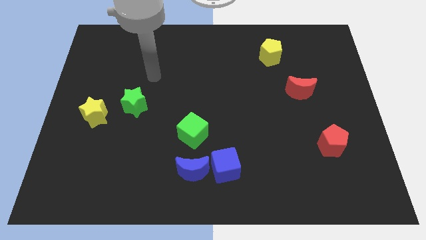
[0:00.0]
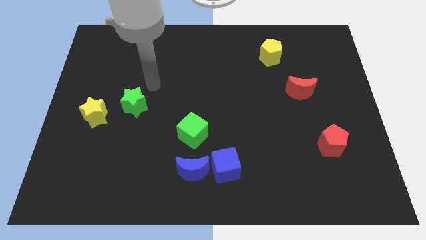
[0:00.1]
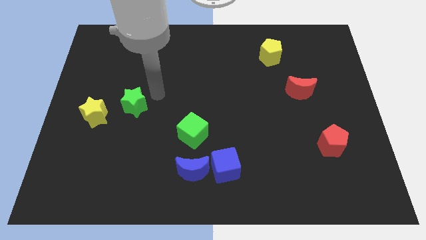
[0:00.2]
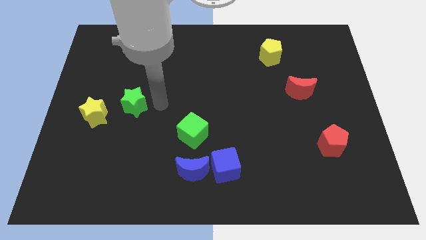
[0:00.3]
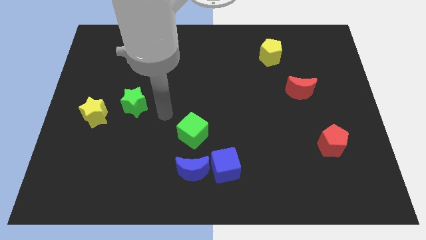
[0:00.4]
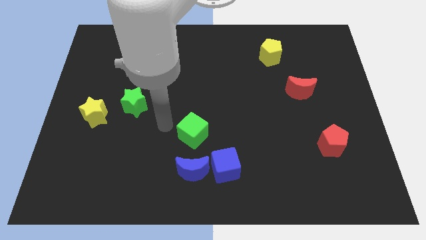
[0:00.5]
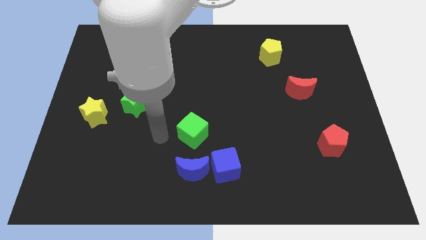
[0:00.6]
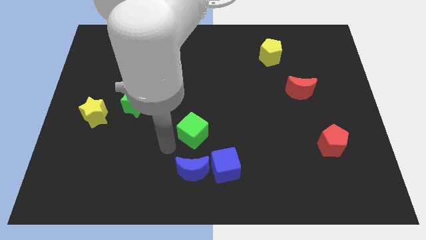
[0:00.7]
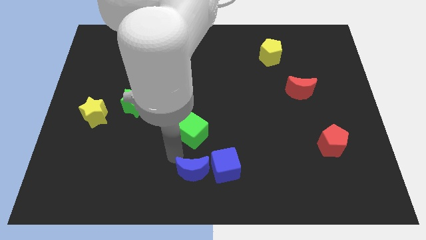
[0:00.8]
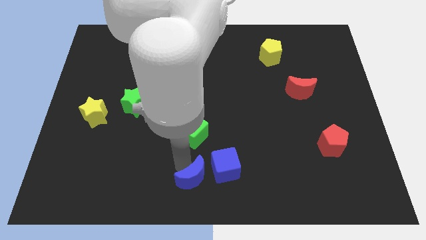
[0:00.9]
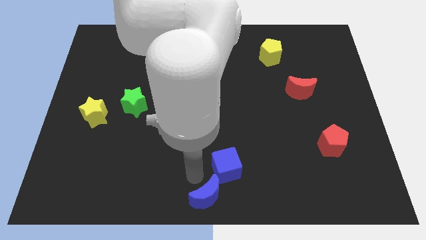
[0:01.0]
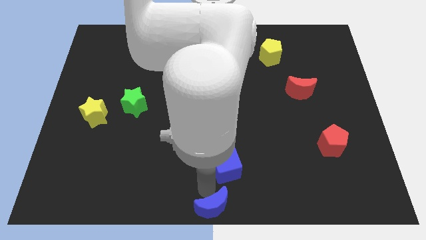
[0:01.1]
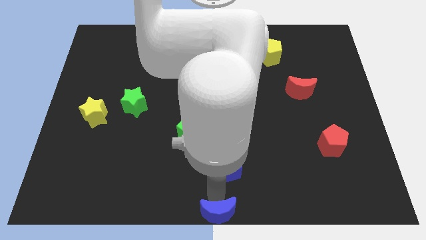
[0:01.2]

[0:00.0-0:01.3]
move the blue cube away from the blue moon

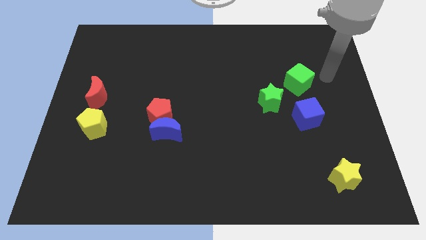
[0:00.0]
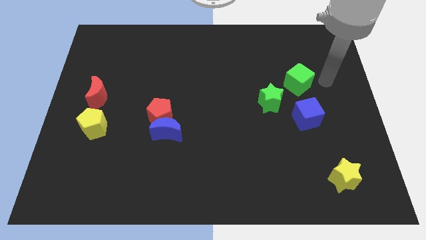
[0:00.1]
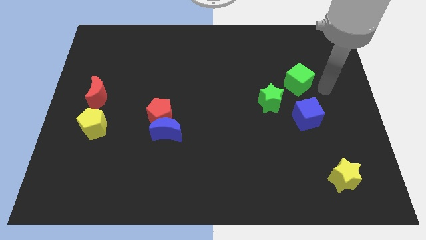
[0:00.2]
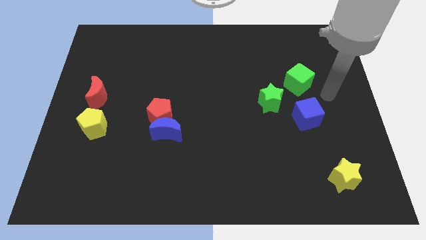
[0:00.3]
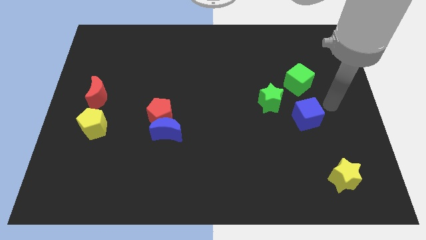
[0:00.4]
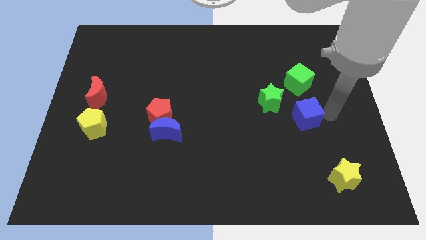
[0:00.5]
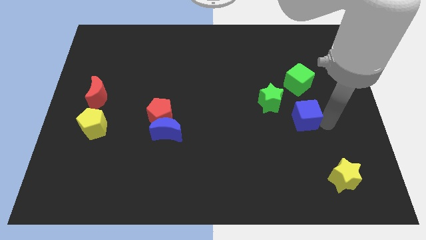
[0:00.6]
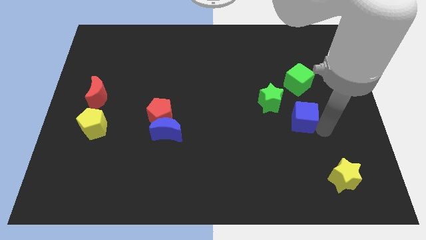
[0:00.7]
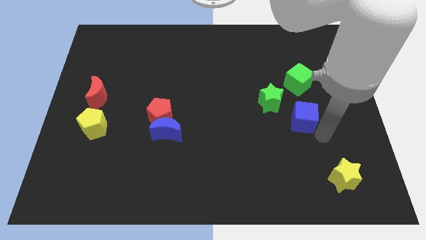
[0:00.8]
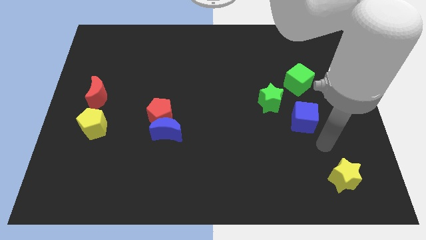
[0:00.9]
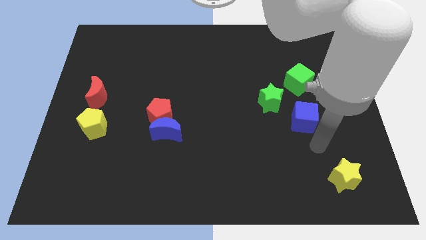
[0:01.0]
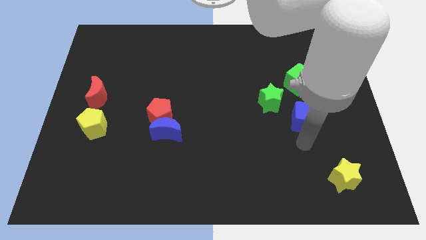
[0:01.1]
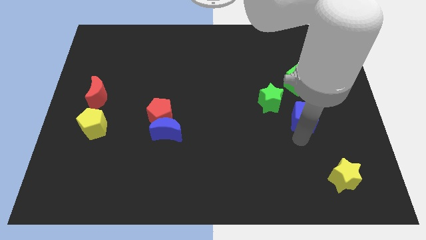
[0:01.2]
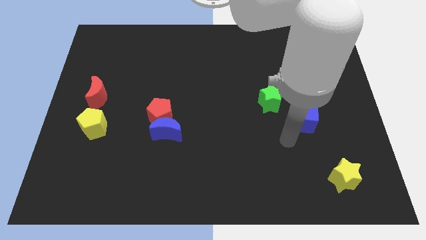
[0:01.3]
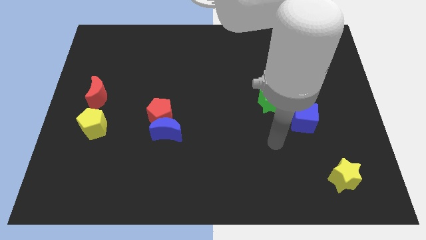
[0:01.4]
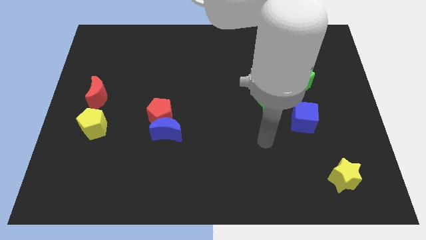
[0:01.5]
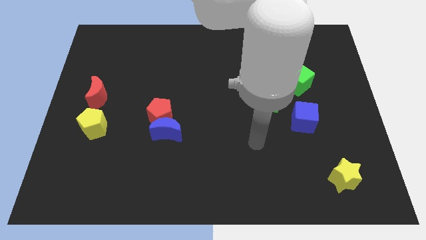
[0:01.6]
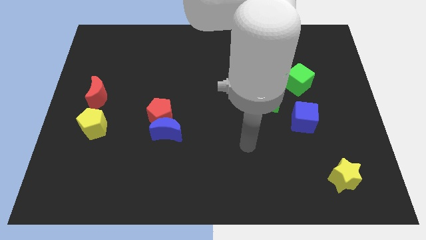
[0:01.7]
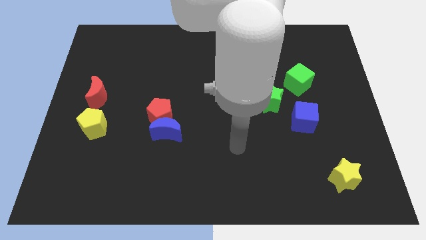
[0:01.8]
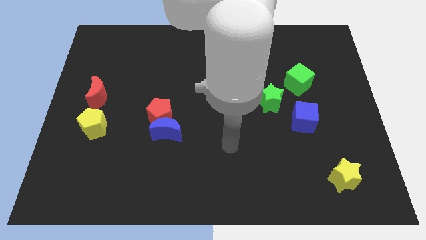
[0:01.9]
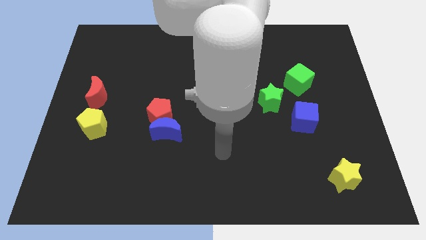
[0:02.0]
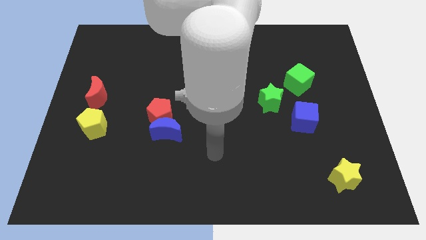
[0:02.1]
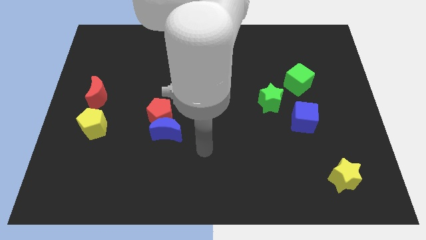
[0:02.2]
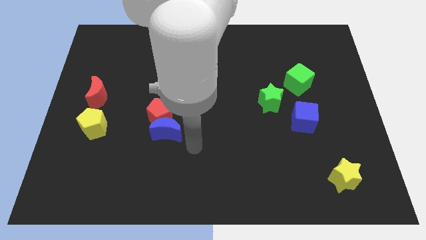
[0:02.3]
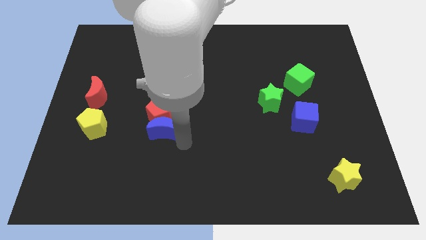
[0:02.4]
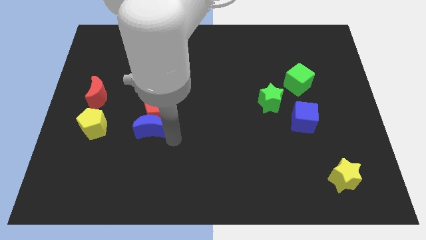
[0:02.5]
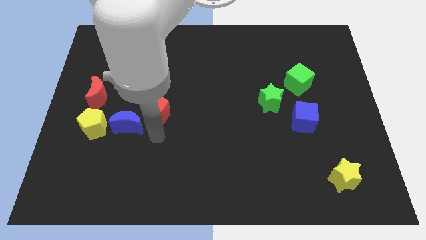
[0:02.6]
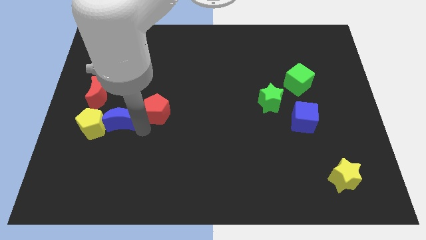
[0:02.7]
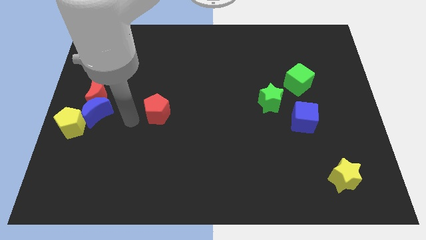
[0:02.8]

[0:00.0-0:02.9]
separate the red pentagon from the blue moon

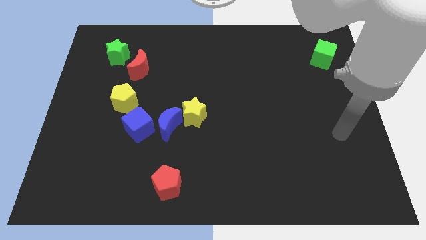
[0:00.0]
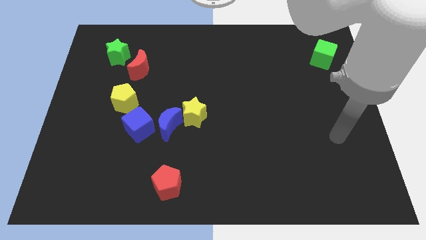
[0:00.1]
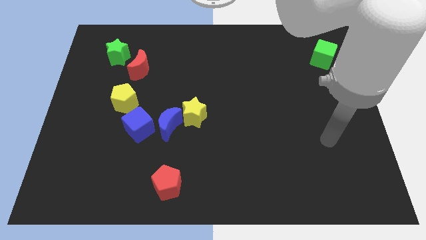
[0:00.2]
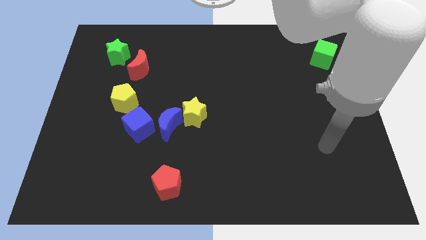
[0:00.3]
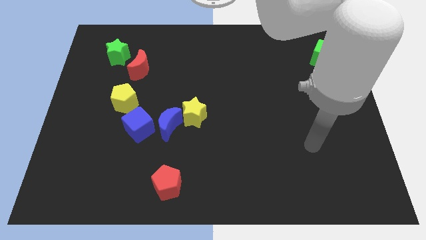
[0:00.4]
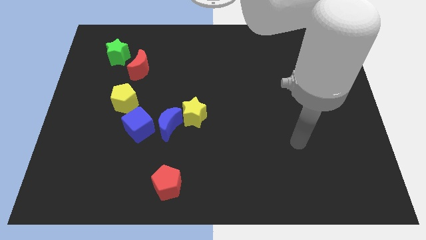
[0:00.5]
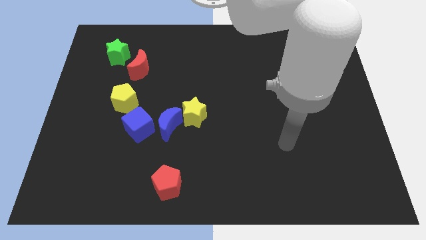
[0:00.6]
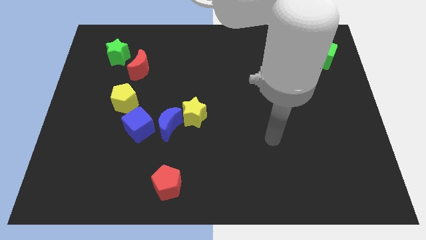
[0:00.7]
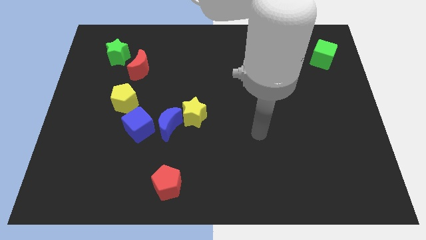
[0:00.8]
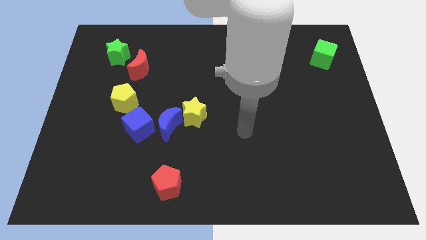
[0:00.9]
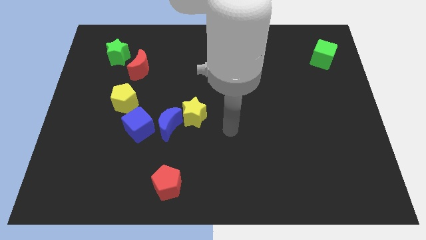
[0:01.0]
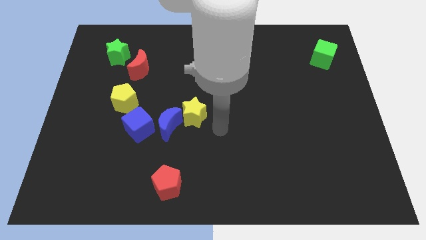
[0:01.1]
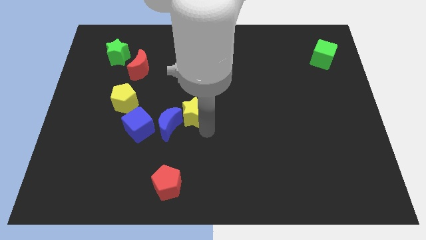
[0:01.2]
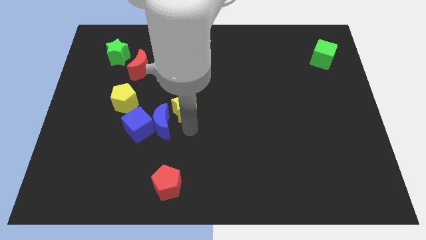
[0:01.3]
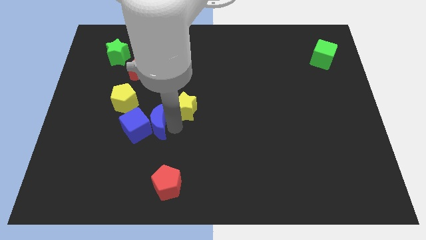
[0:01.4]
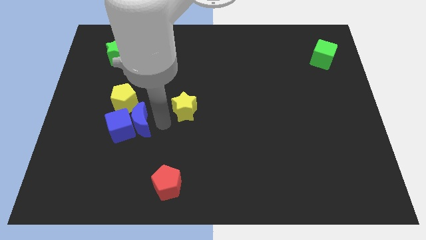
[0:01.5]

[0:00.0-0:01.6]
separate the yellow star from the blue moon

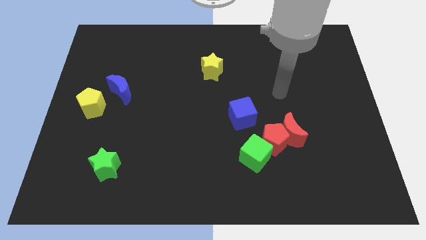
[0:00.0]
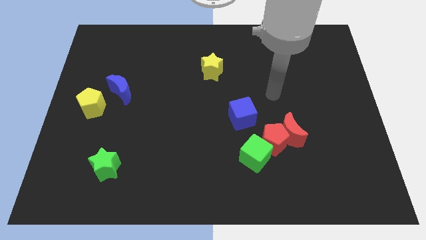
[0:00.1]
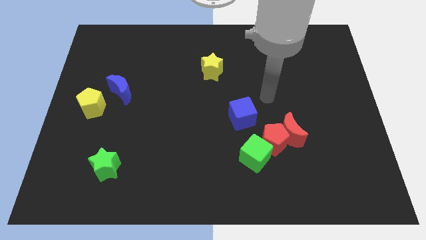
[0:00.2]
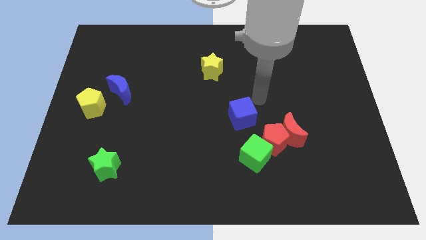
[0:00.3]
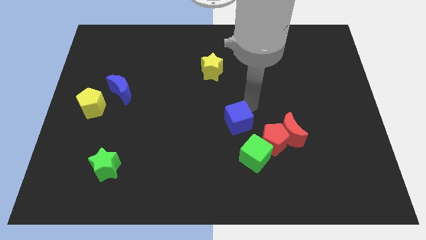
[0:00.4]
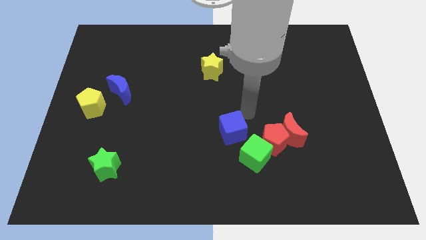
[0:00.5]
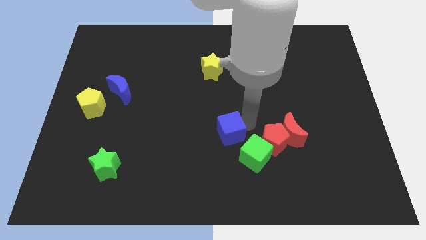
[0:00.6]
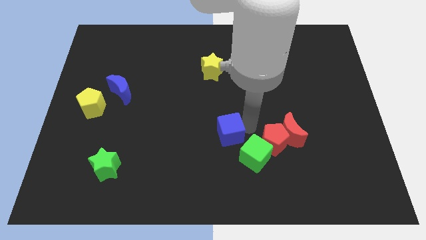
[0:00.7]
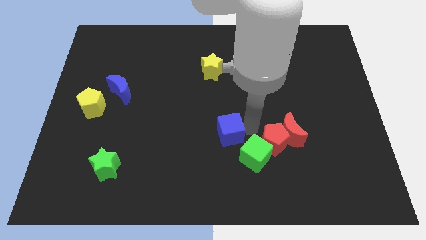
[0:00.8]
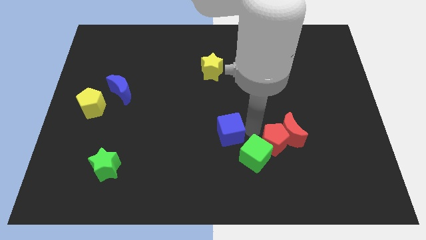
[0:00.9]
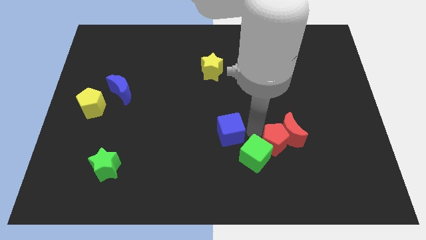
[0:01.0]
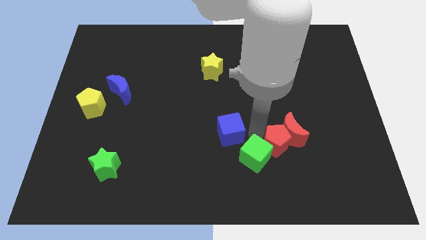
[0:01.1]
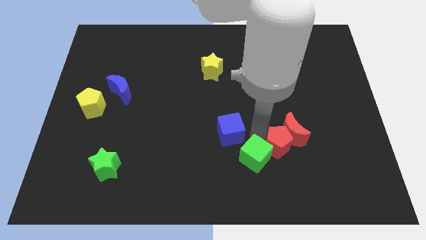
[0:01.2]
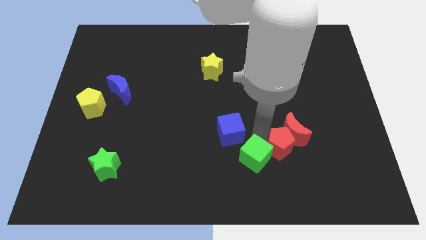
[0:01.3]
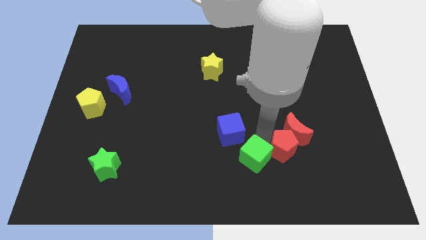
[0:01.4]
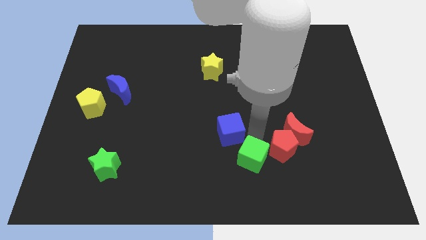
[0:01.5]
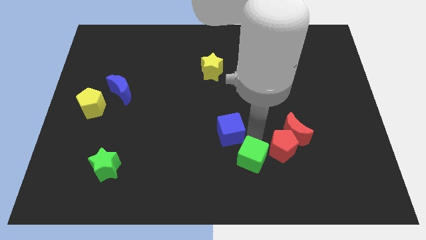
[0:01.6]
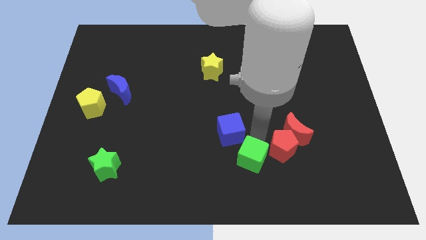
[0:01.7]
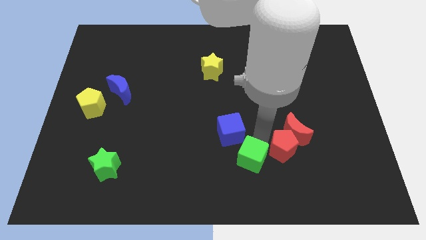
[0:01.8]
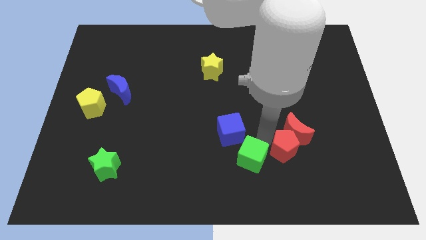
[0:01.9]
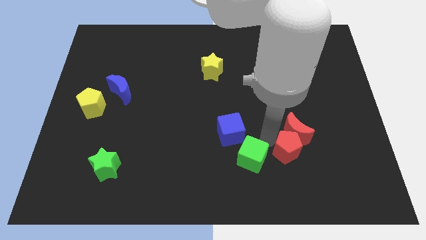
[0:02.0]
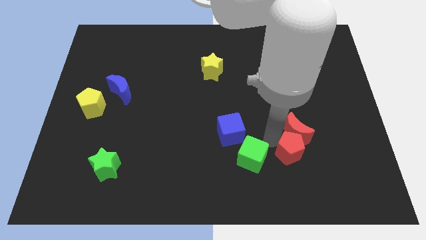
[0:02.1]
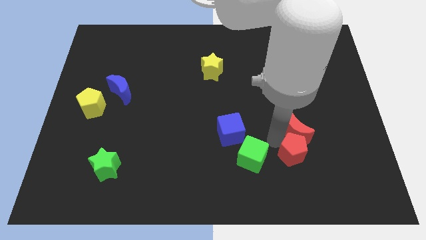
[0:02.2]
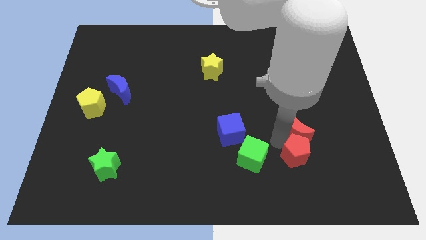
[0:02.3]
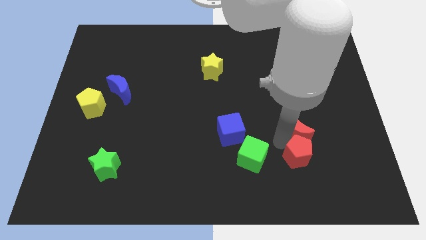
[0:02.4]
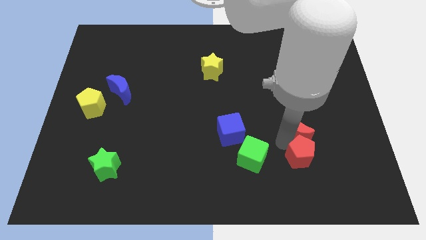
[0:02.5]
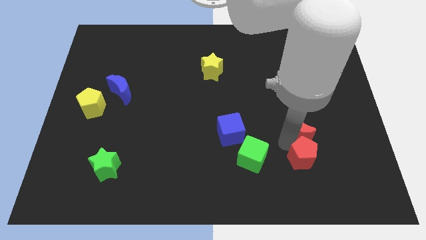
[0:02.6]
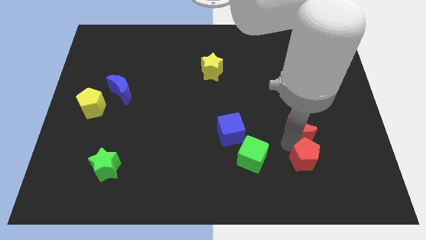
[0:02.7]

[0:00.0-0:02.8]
move the red pentagon away from the red moon, green cube, and blue cube

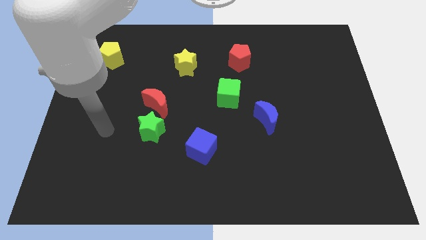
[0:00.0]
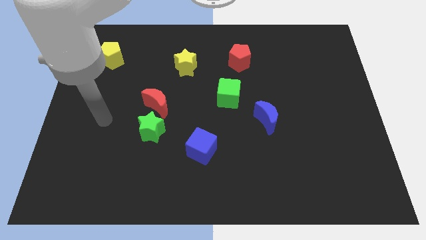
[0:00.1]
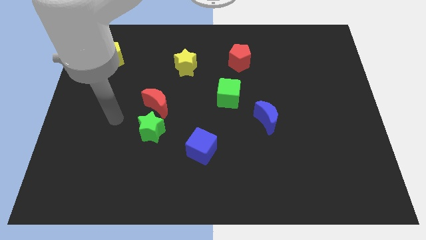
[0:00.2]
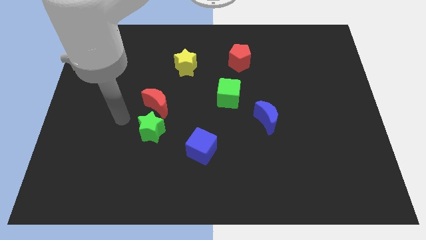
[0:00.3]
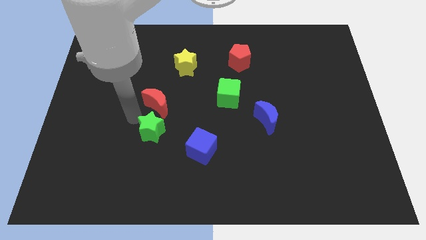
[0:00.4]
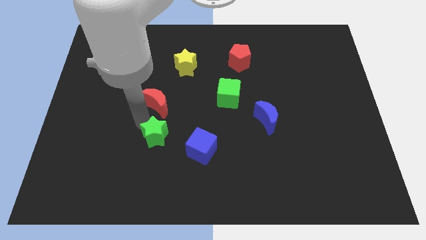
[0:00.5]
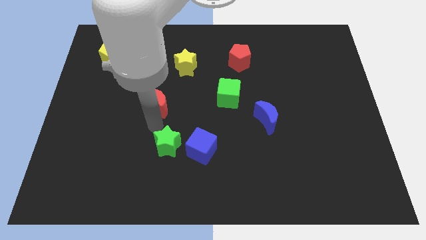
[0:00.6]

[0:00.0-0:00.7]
separate the red moon from the green star

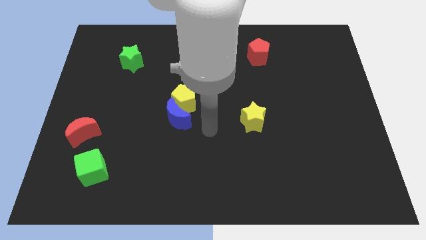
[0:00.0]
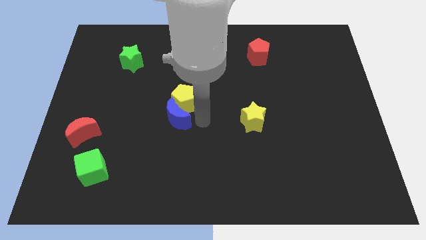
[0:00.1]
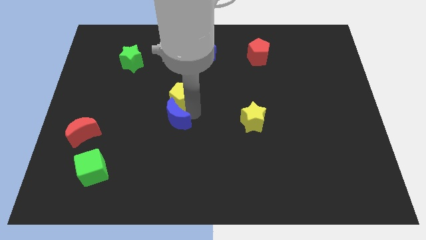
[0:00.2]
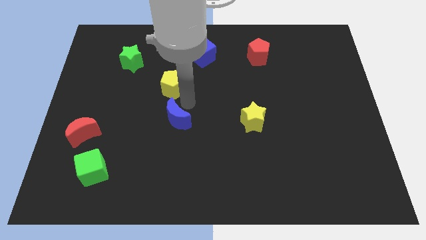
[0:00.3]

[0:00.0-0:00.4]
separate the blue moon from the yellow pentagon
